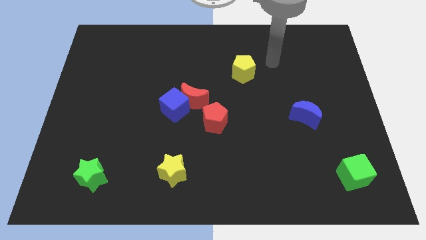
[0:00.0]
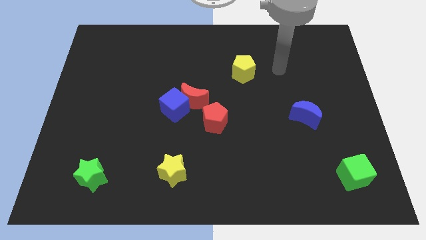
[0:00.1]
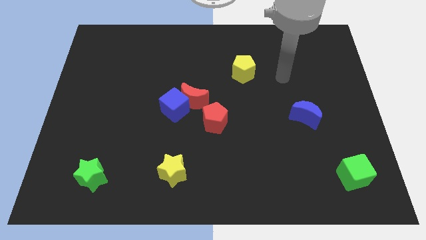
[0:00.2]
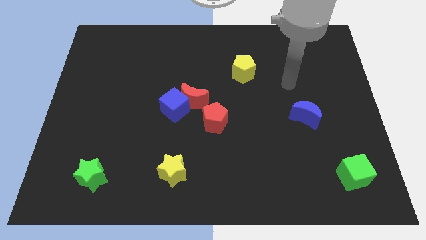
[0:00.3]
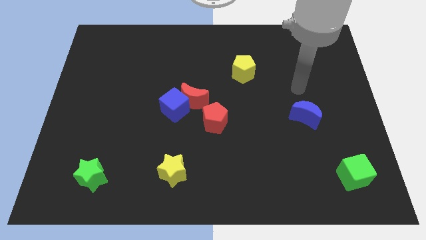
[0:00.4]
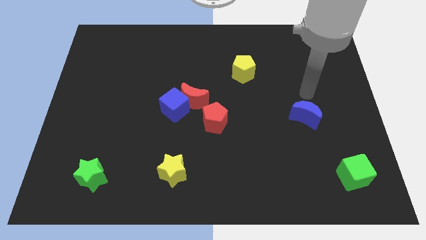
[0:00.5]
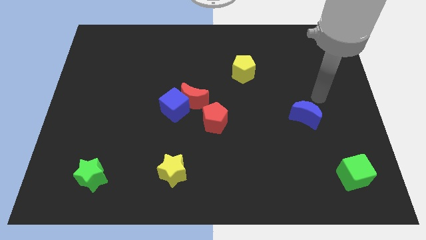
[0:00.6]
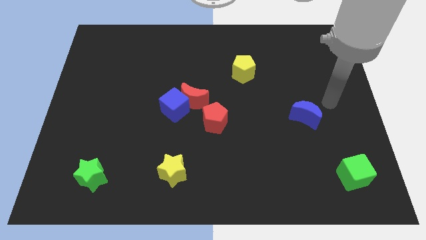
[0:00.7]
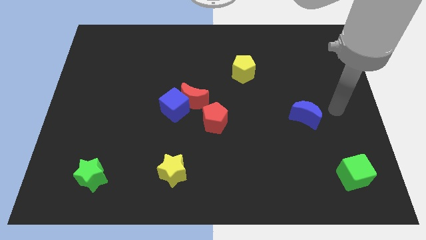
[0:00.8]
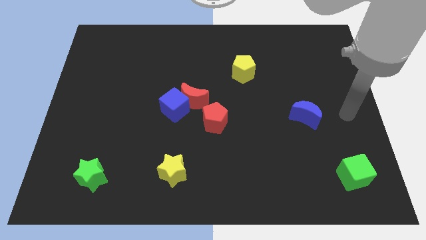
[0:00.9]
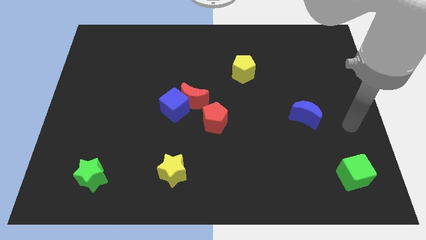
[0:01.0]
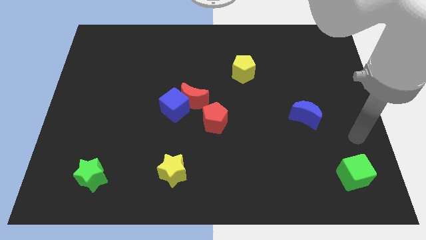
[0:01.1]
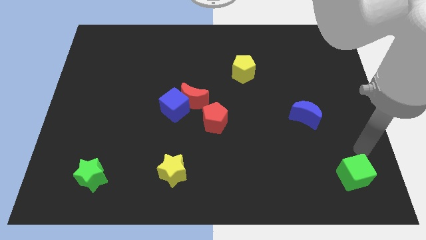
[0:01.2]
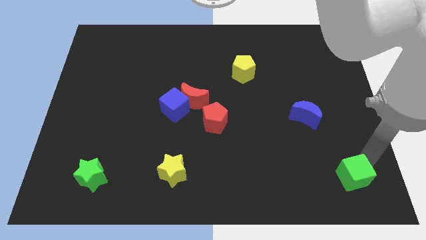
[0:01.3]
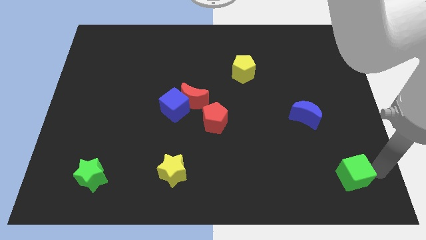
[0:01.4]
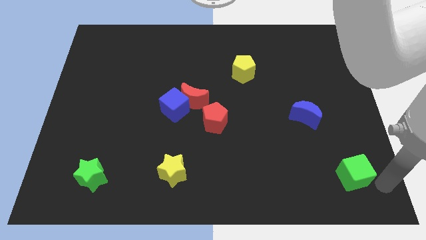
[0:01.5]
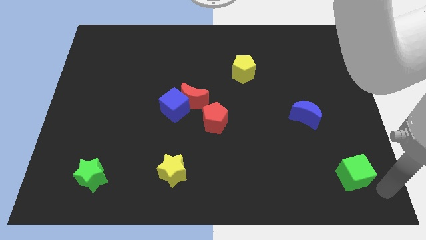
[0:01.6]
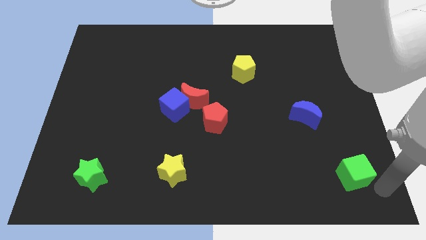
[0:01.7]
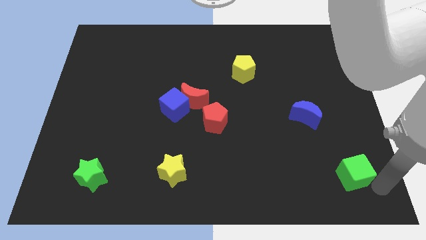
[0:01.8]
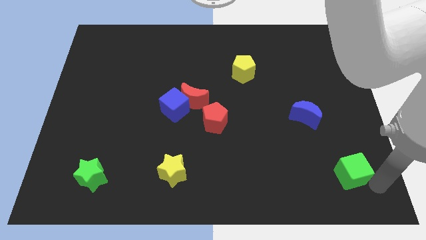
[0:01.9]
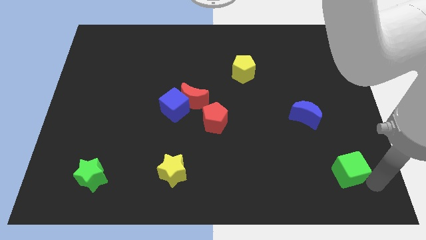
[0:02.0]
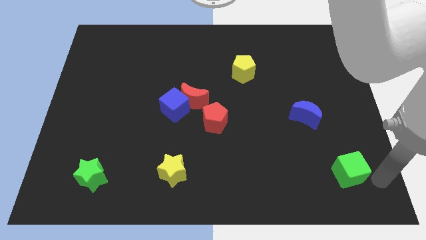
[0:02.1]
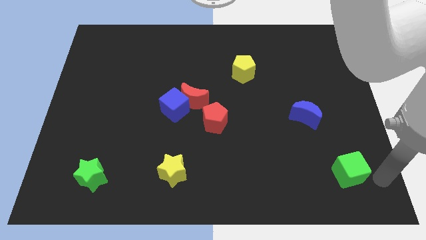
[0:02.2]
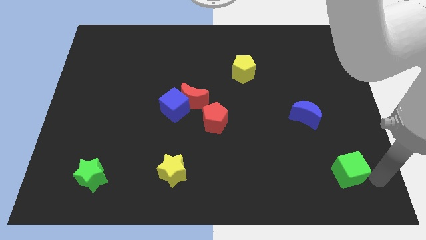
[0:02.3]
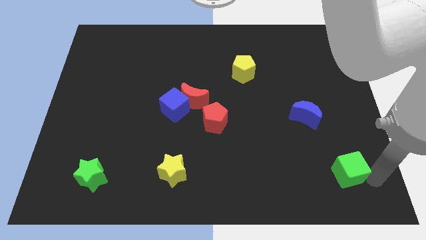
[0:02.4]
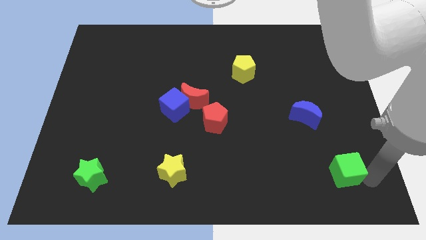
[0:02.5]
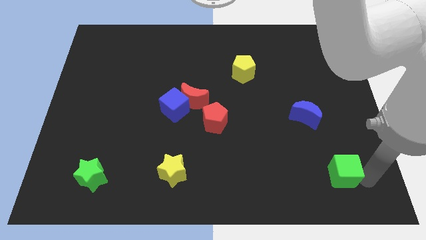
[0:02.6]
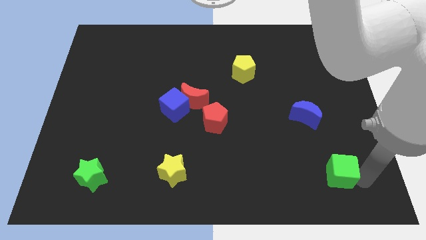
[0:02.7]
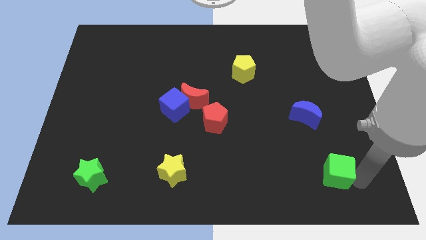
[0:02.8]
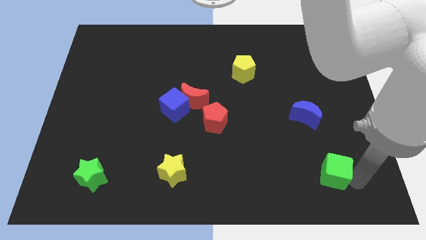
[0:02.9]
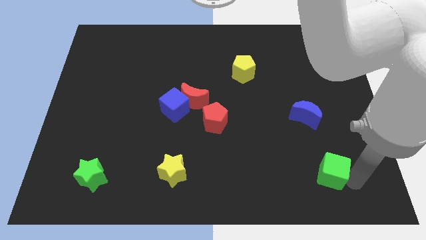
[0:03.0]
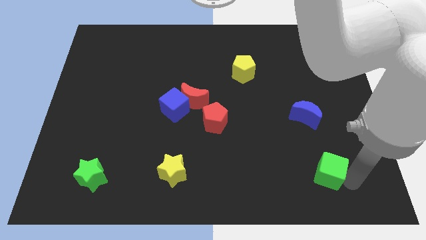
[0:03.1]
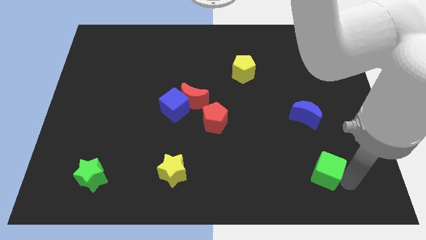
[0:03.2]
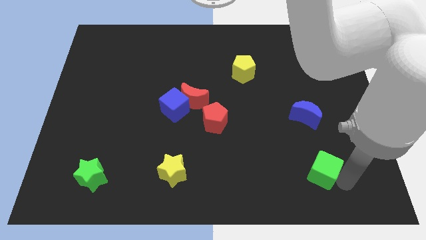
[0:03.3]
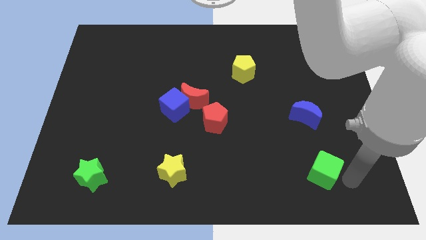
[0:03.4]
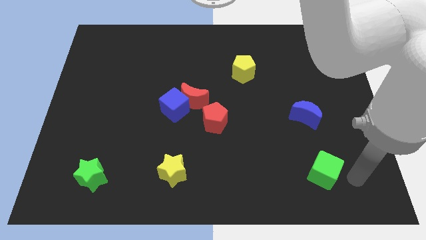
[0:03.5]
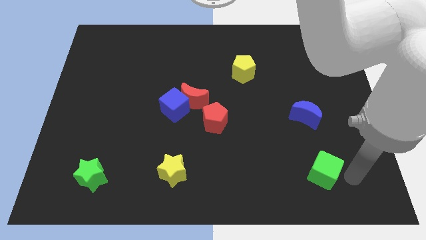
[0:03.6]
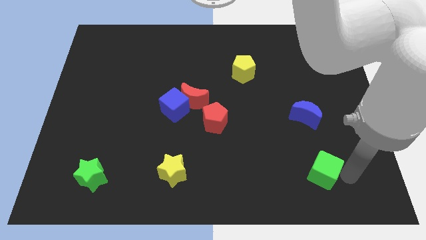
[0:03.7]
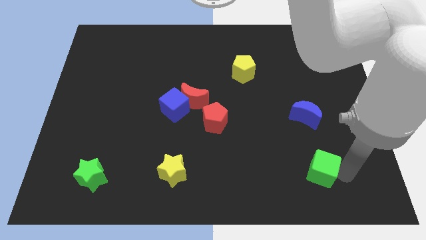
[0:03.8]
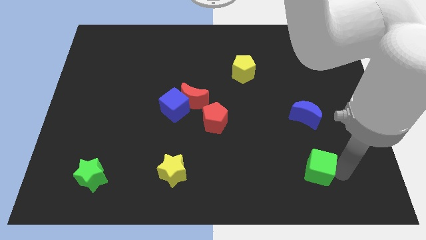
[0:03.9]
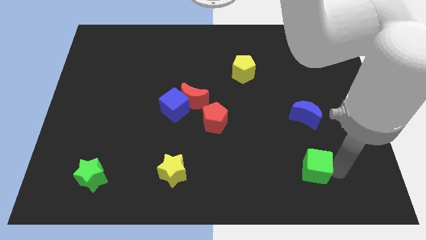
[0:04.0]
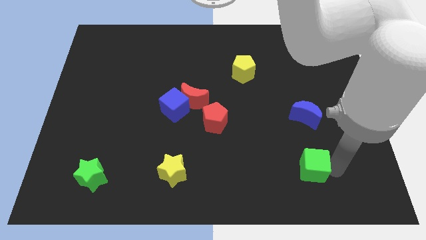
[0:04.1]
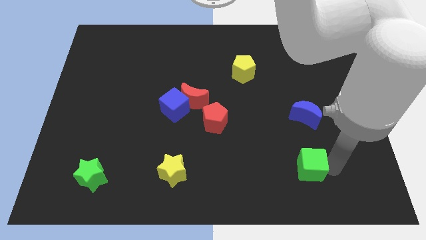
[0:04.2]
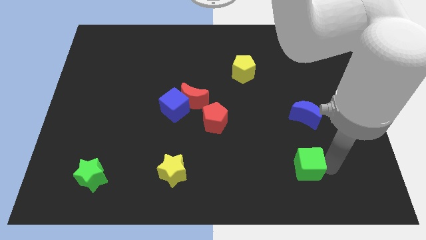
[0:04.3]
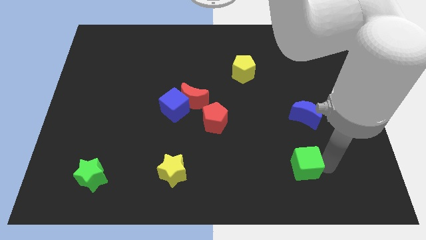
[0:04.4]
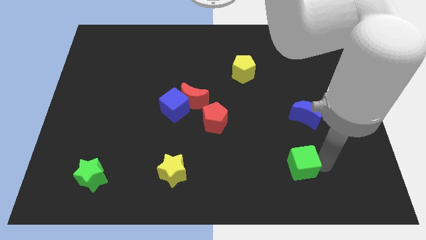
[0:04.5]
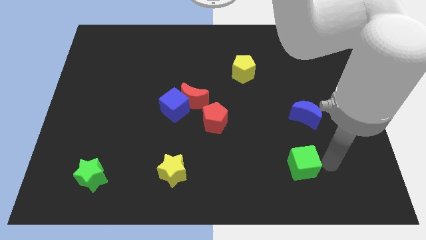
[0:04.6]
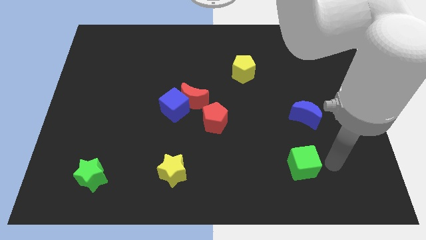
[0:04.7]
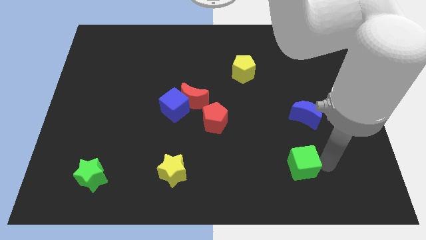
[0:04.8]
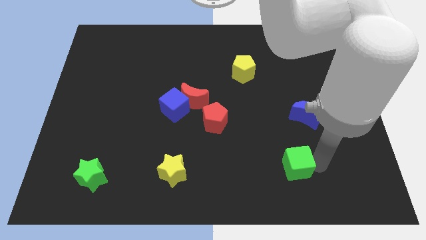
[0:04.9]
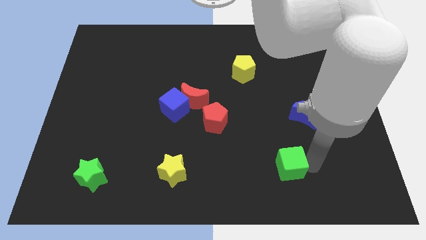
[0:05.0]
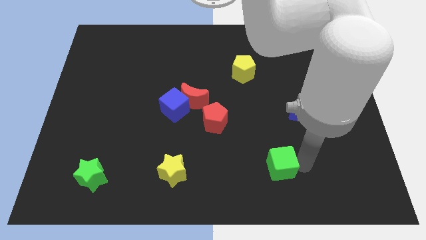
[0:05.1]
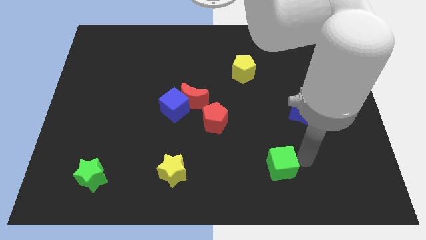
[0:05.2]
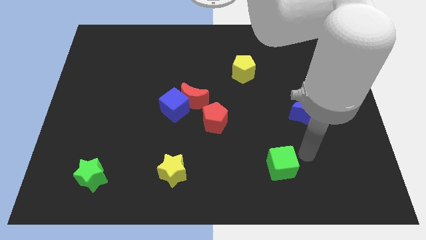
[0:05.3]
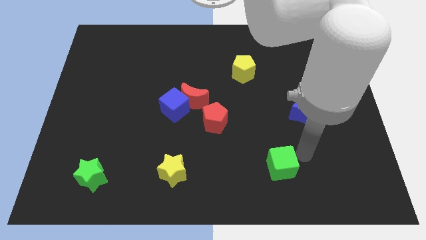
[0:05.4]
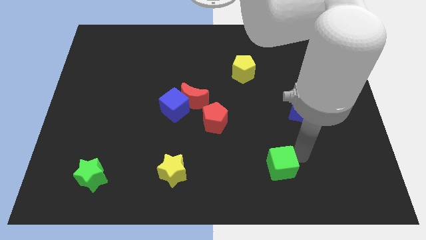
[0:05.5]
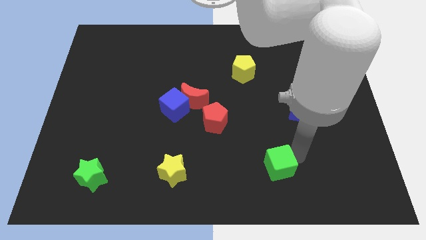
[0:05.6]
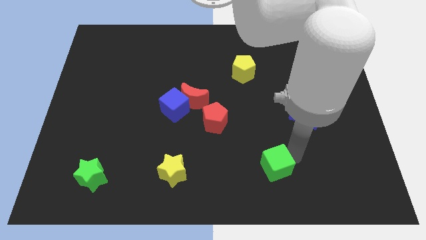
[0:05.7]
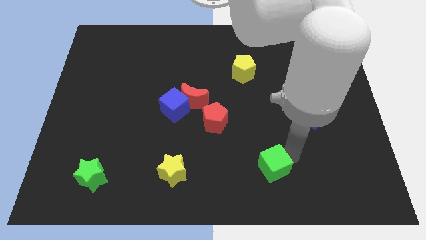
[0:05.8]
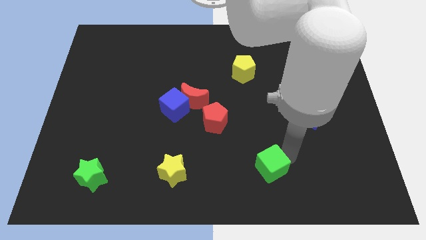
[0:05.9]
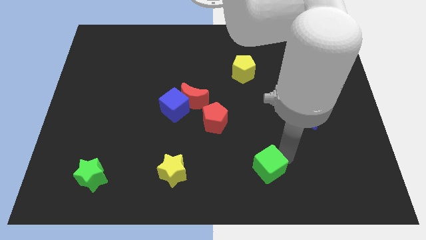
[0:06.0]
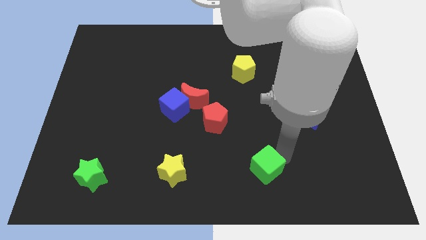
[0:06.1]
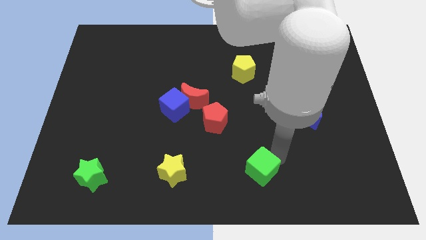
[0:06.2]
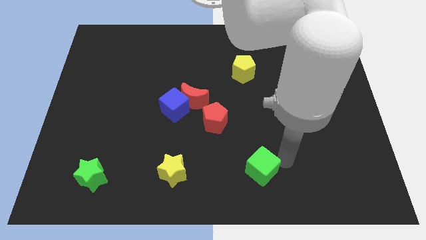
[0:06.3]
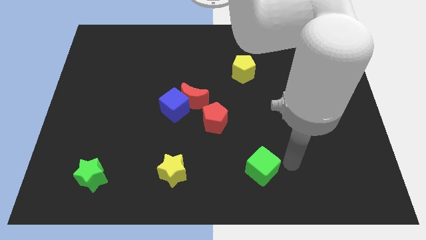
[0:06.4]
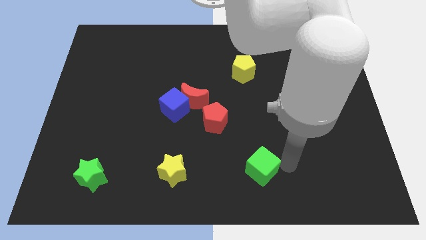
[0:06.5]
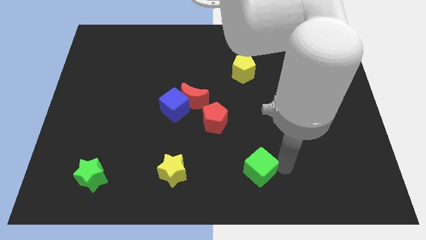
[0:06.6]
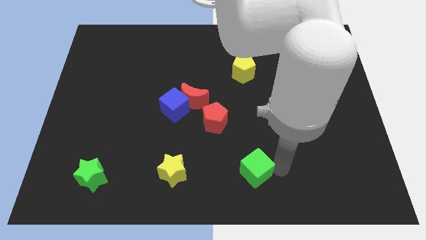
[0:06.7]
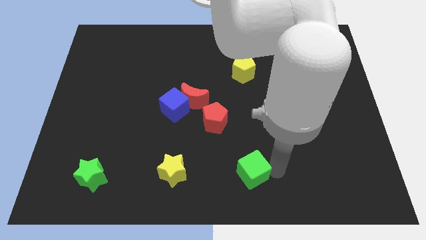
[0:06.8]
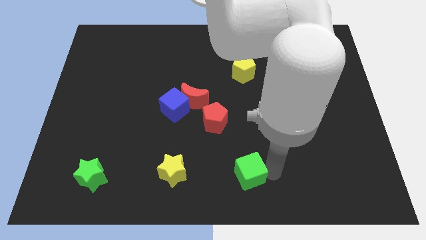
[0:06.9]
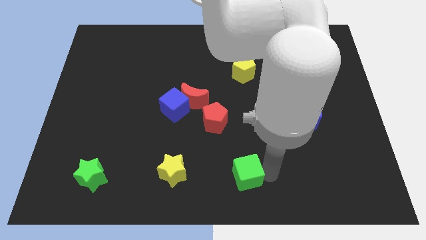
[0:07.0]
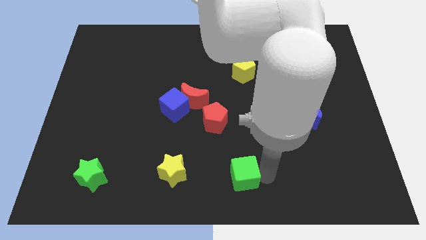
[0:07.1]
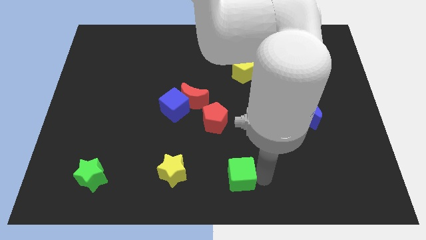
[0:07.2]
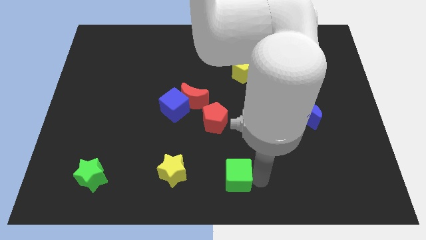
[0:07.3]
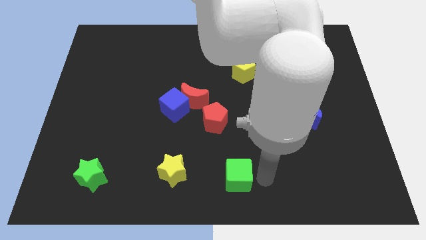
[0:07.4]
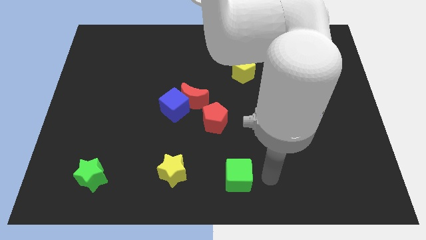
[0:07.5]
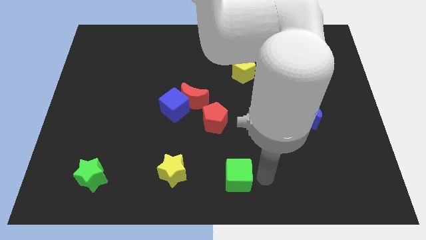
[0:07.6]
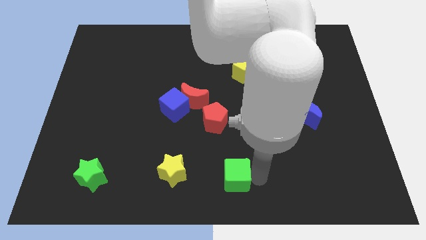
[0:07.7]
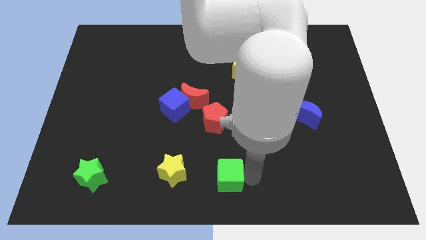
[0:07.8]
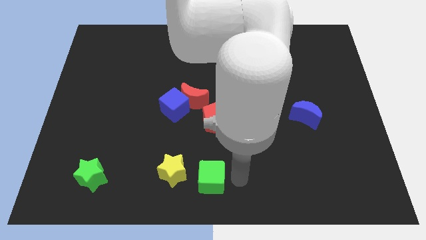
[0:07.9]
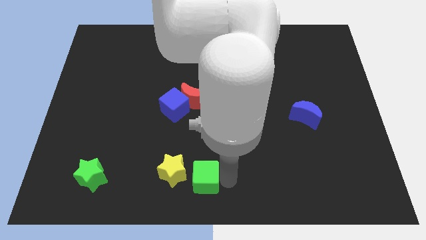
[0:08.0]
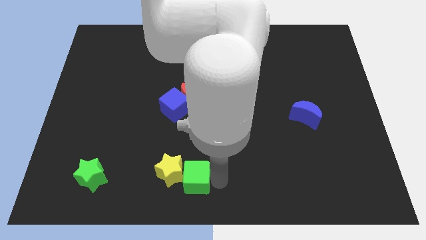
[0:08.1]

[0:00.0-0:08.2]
slide the green cube close to the yellow star
